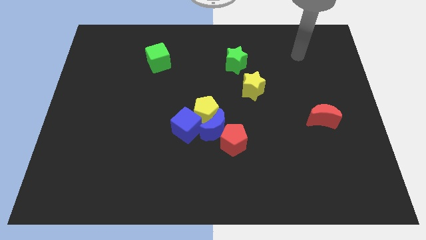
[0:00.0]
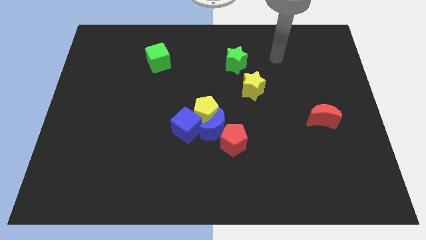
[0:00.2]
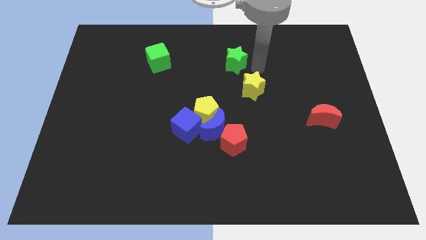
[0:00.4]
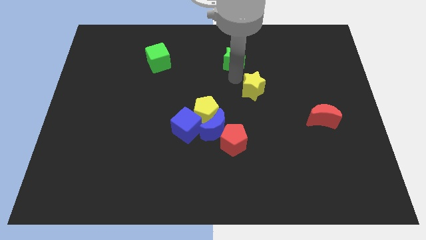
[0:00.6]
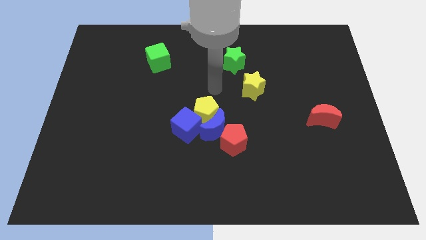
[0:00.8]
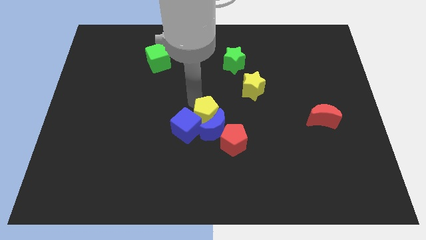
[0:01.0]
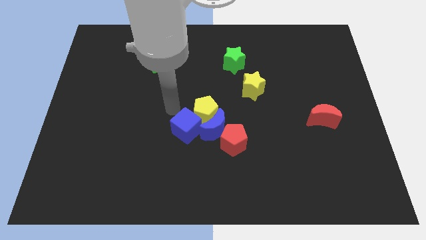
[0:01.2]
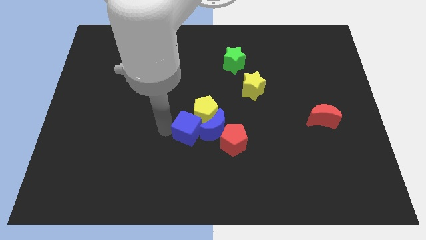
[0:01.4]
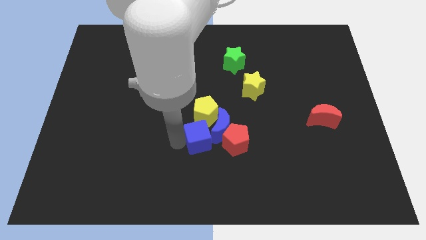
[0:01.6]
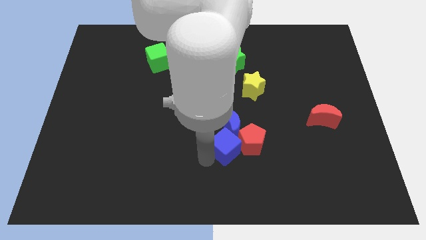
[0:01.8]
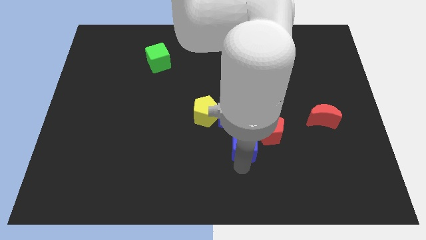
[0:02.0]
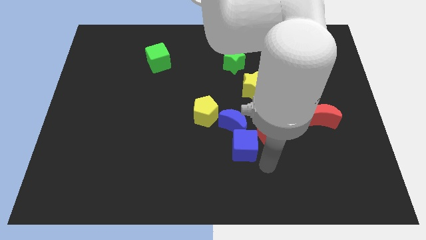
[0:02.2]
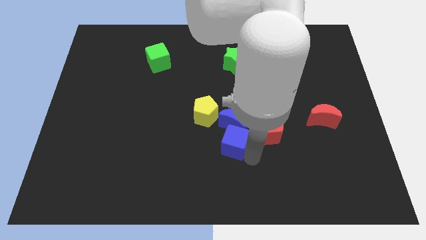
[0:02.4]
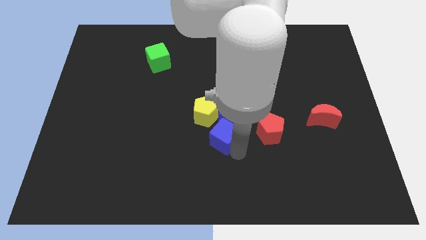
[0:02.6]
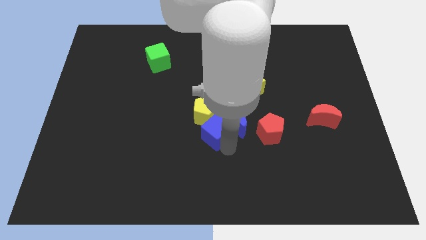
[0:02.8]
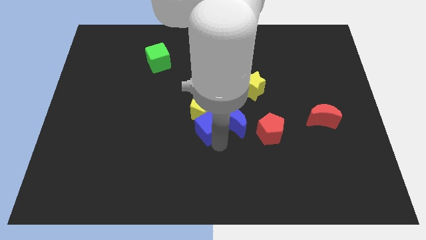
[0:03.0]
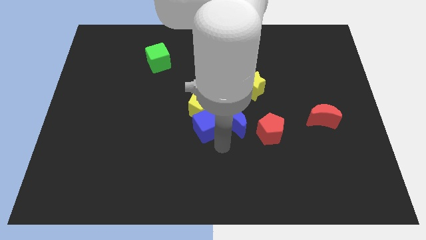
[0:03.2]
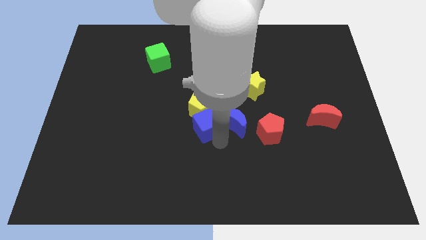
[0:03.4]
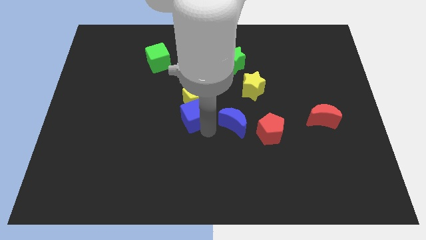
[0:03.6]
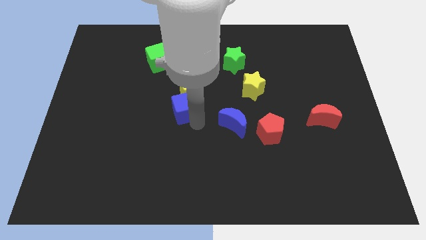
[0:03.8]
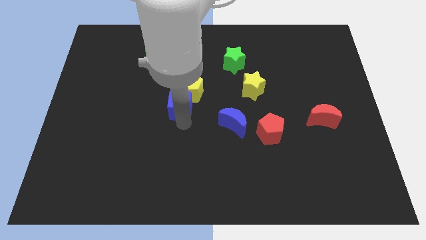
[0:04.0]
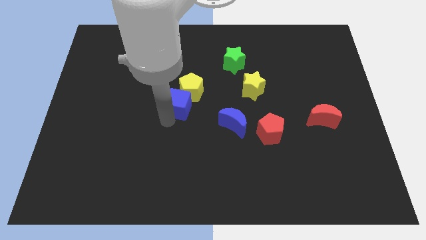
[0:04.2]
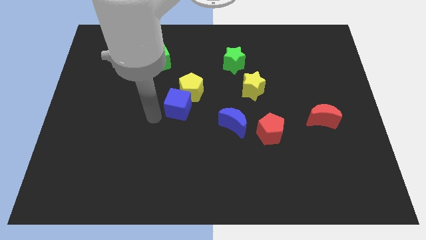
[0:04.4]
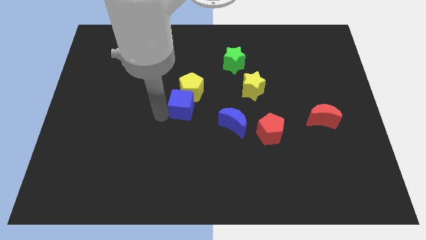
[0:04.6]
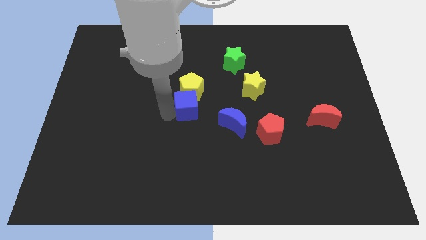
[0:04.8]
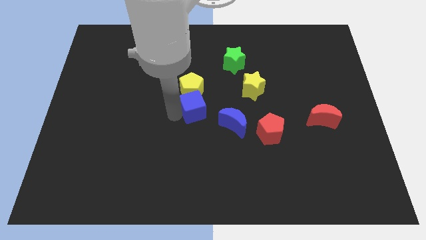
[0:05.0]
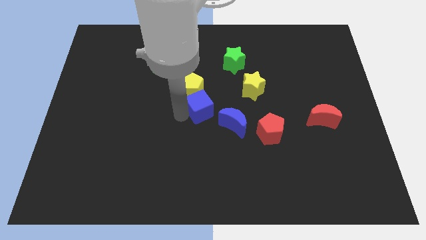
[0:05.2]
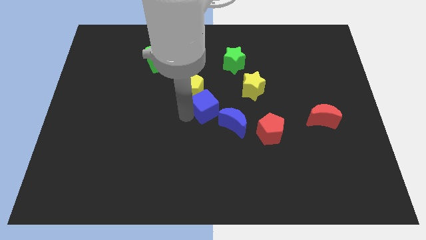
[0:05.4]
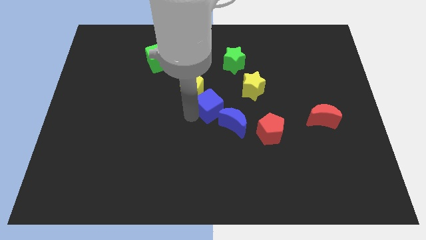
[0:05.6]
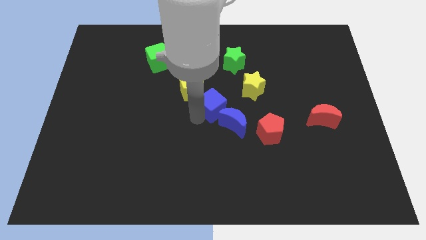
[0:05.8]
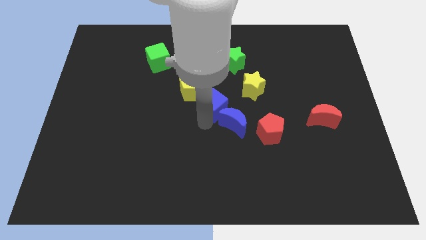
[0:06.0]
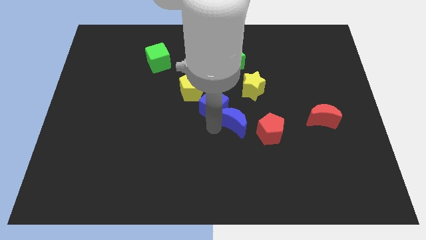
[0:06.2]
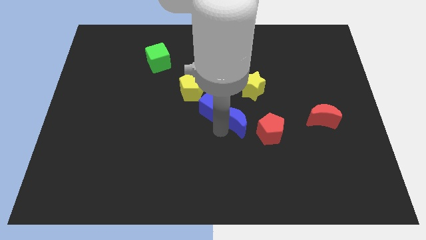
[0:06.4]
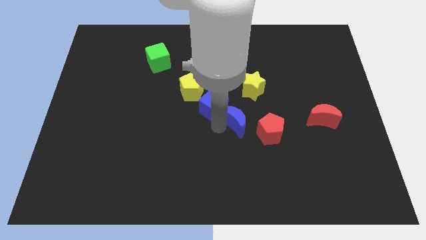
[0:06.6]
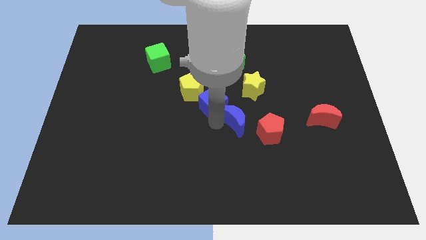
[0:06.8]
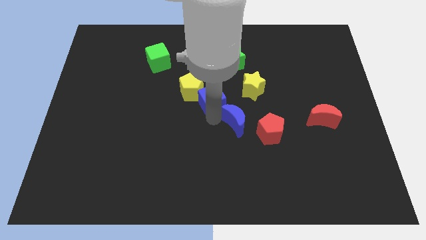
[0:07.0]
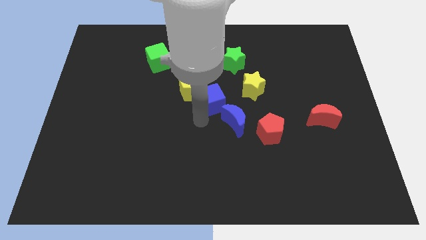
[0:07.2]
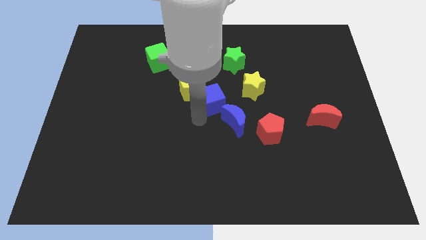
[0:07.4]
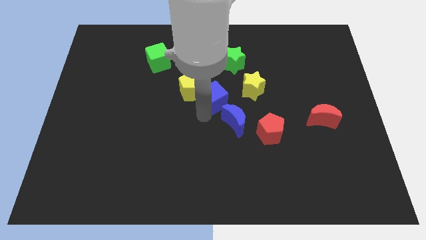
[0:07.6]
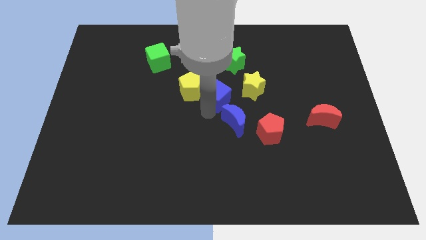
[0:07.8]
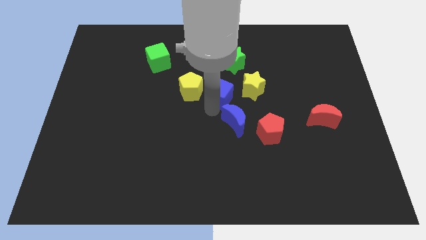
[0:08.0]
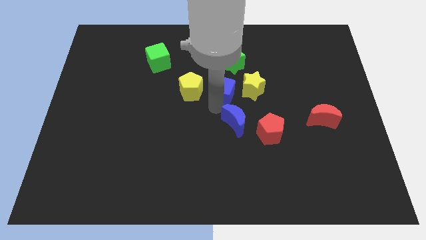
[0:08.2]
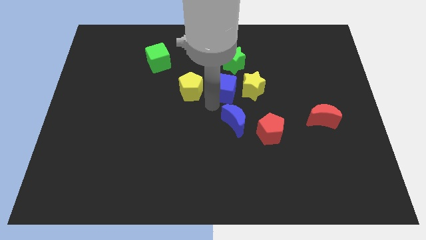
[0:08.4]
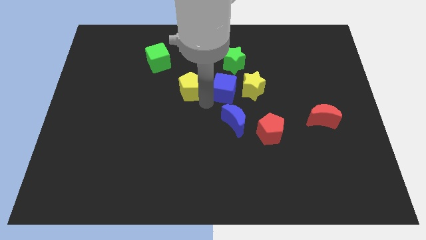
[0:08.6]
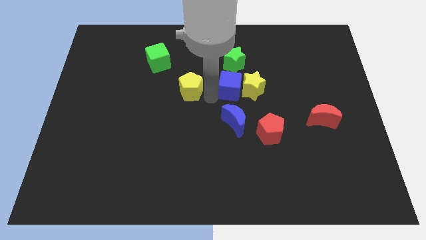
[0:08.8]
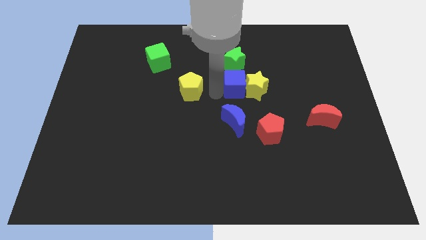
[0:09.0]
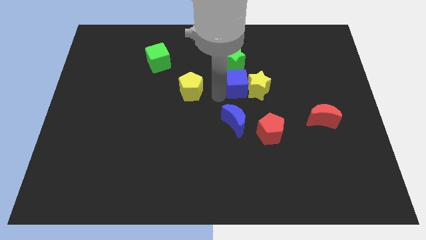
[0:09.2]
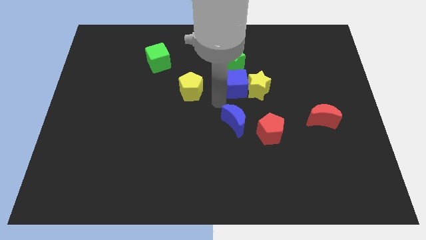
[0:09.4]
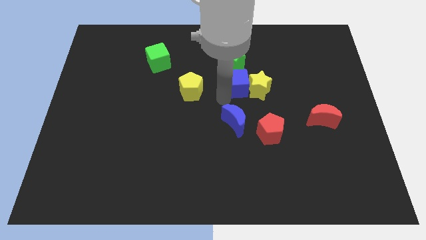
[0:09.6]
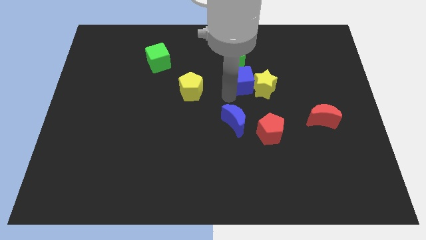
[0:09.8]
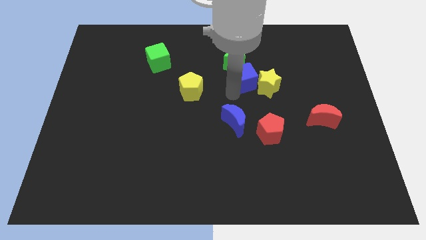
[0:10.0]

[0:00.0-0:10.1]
slide the blue cube upwards and right diagonally

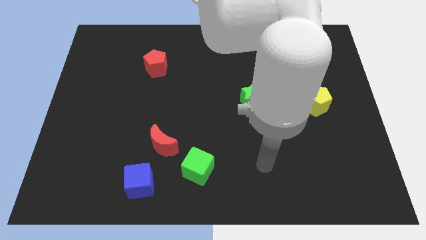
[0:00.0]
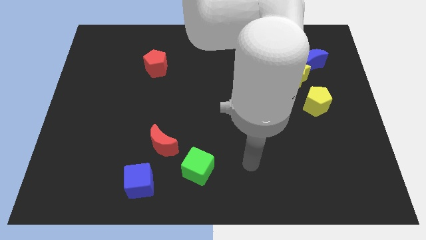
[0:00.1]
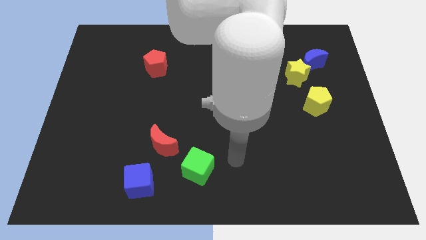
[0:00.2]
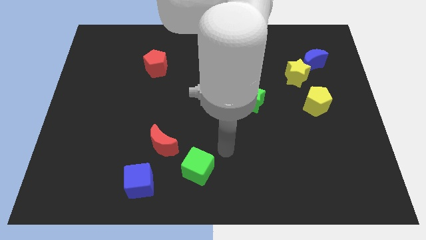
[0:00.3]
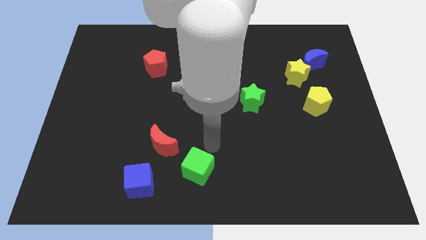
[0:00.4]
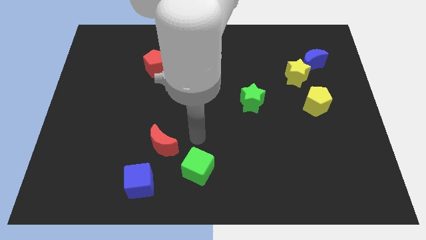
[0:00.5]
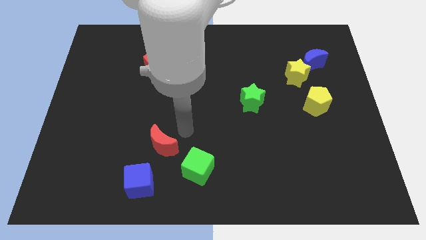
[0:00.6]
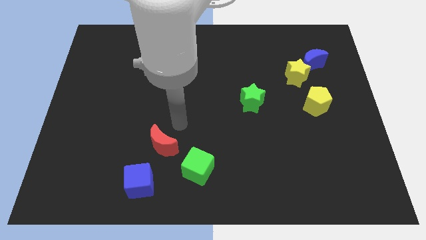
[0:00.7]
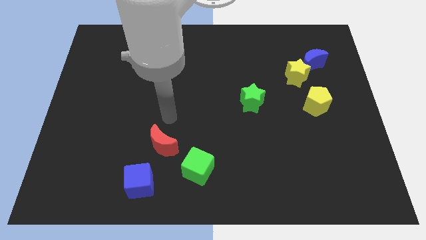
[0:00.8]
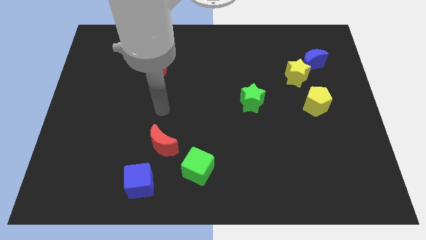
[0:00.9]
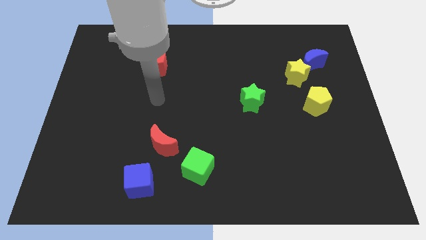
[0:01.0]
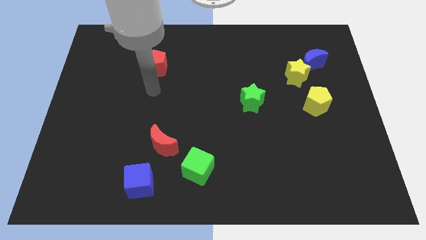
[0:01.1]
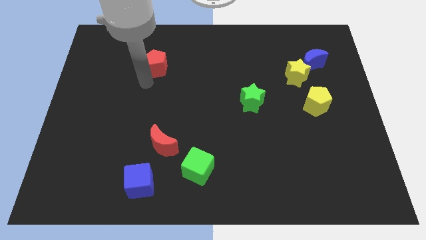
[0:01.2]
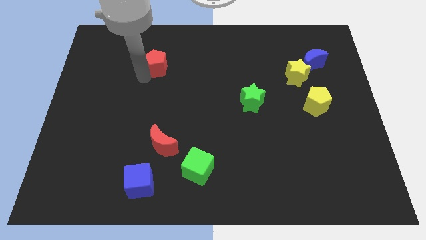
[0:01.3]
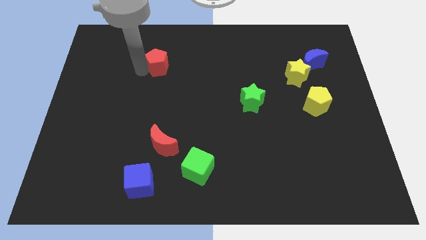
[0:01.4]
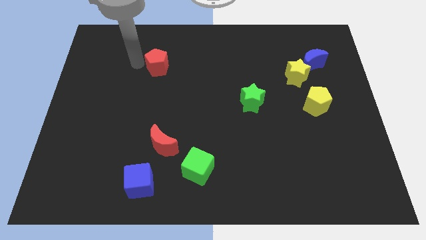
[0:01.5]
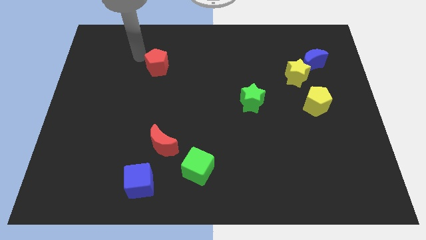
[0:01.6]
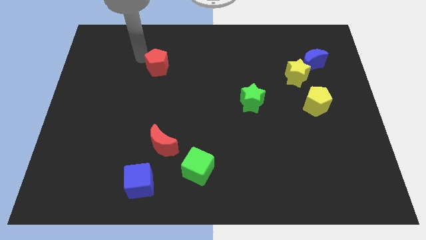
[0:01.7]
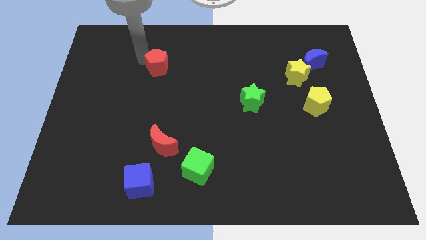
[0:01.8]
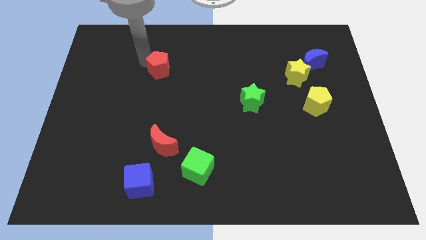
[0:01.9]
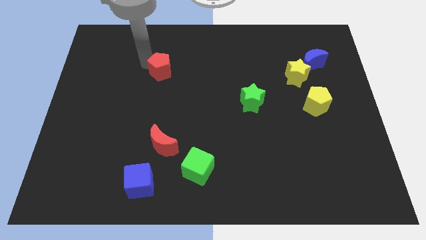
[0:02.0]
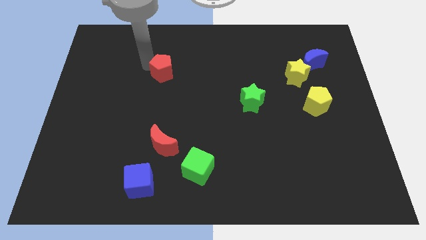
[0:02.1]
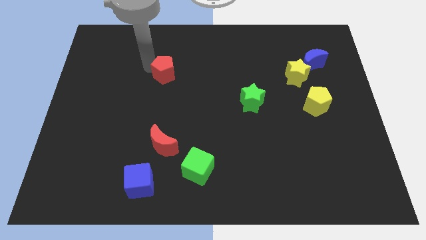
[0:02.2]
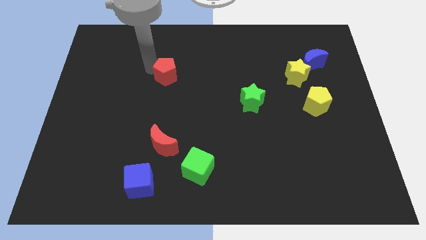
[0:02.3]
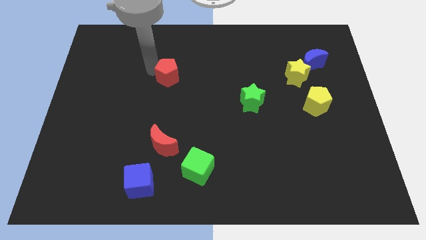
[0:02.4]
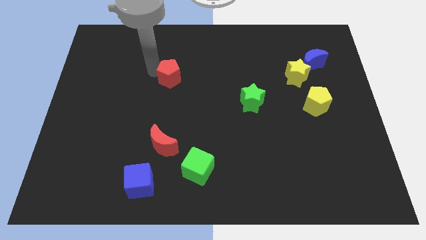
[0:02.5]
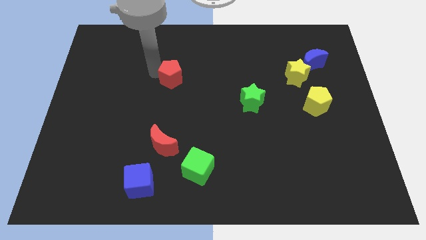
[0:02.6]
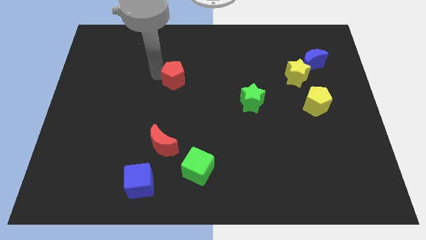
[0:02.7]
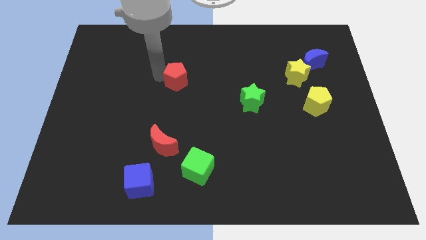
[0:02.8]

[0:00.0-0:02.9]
slightly slide the red pentagon diagonally down and to the right

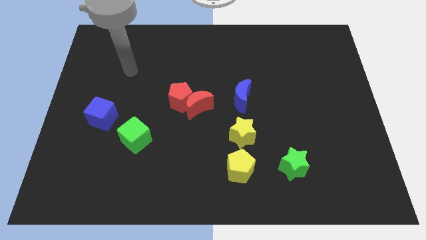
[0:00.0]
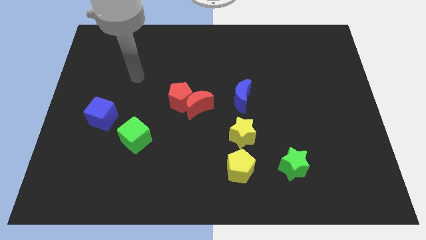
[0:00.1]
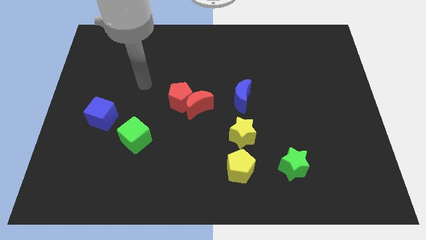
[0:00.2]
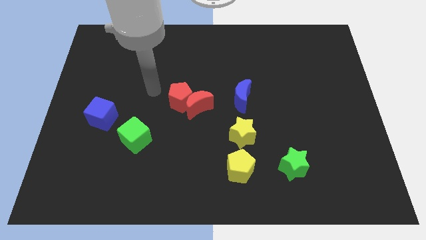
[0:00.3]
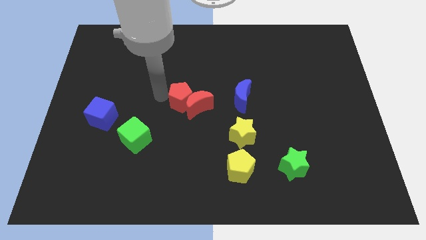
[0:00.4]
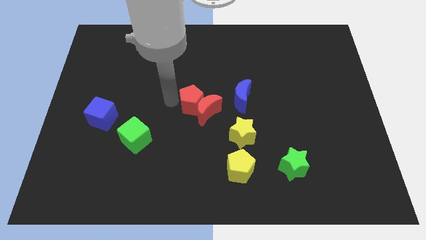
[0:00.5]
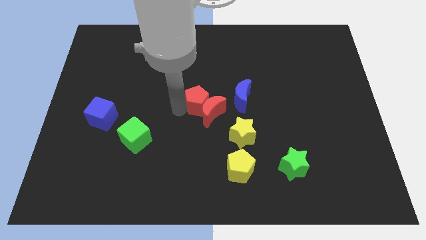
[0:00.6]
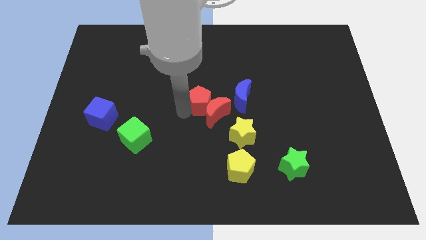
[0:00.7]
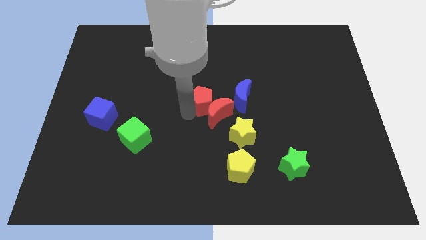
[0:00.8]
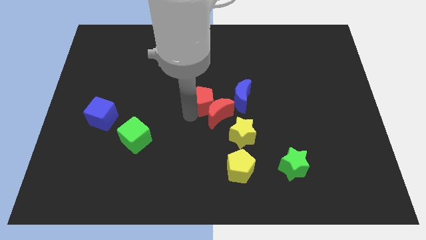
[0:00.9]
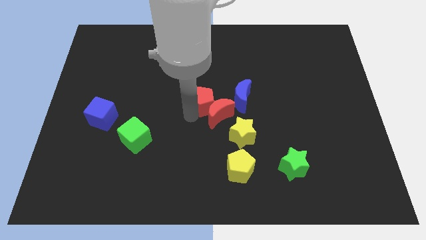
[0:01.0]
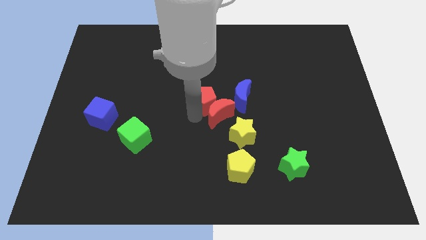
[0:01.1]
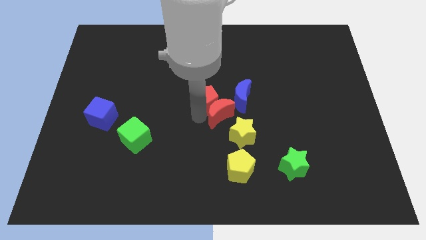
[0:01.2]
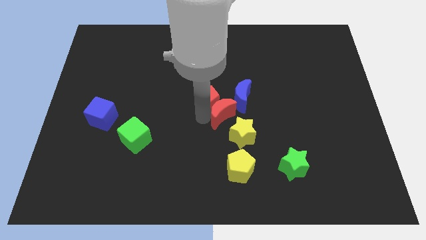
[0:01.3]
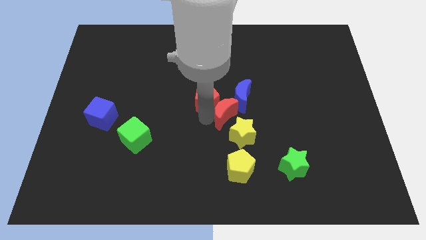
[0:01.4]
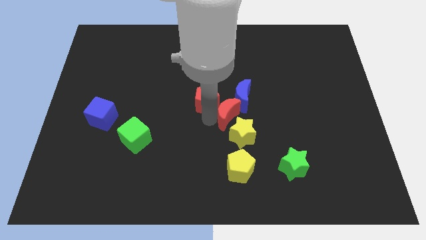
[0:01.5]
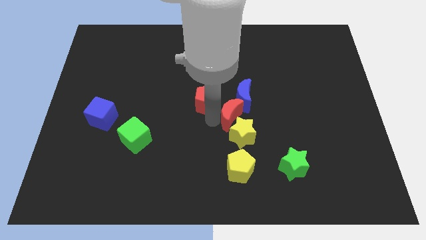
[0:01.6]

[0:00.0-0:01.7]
slide the red moon to the right a little
